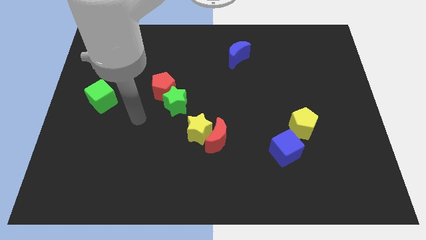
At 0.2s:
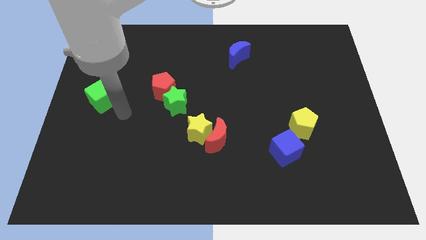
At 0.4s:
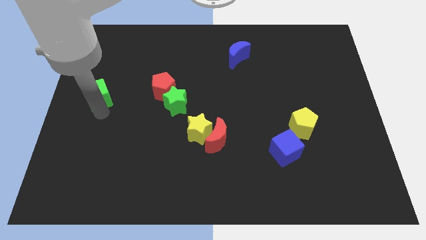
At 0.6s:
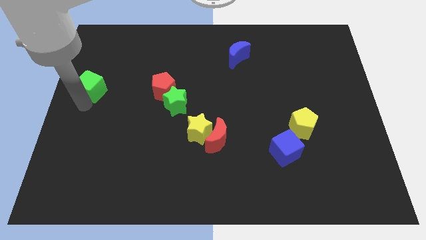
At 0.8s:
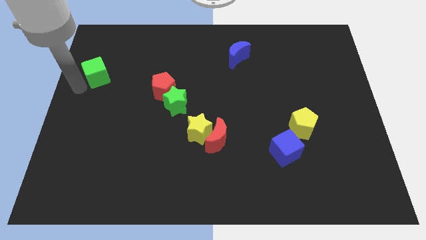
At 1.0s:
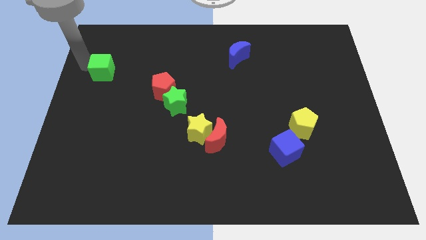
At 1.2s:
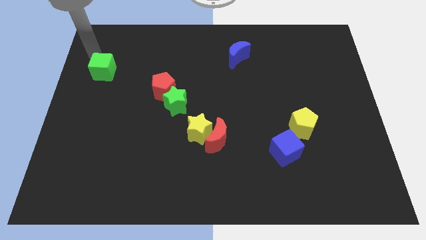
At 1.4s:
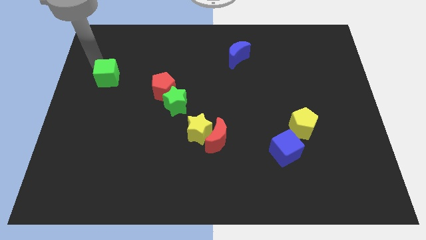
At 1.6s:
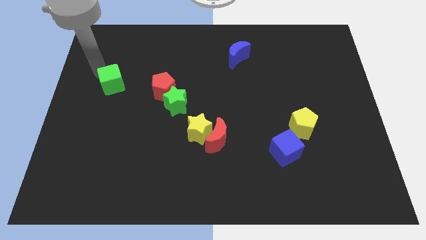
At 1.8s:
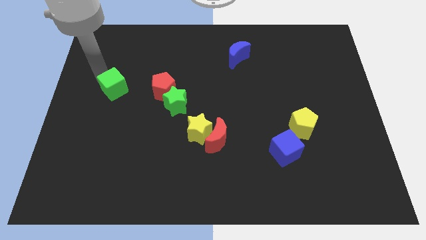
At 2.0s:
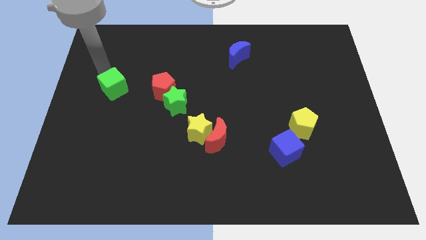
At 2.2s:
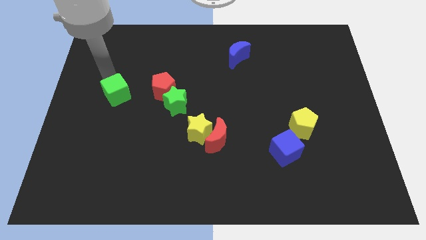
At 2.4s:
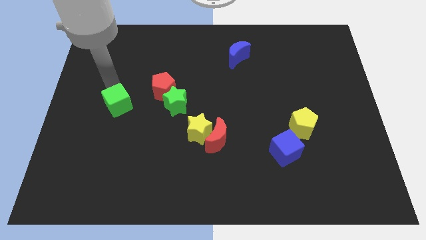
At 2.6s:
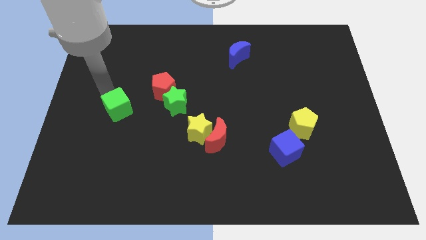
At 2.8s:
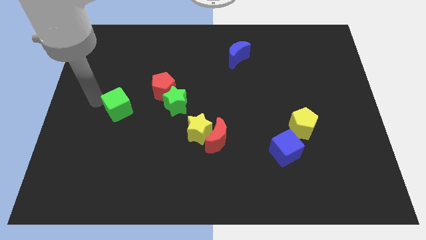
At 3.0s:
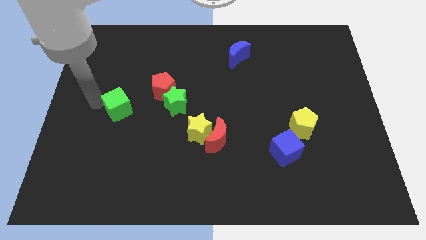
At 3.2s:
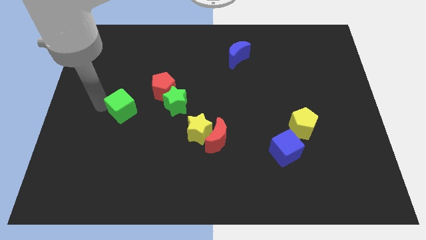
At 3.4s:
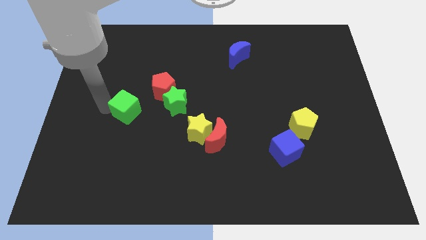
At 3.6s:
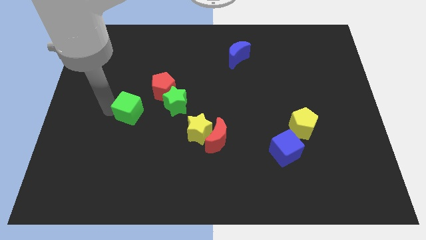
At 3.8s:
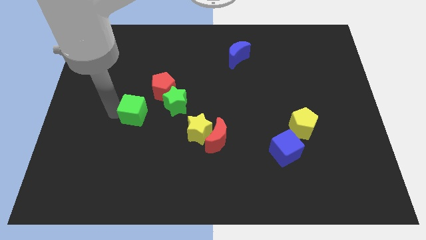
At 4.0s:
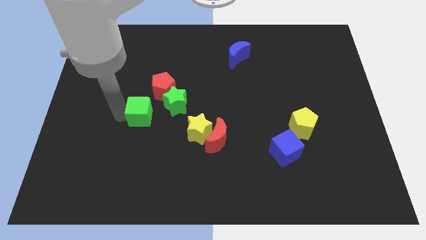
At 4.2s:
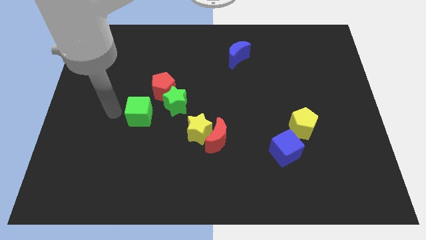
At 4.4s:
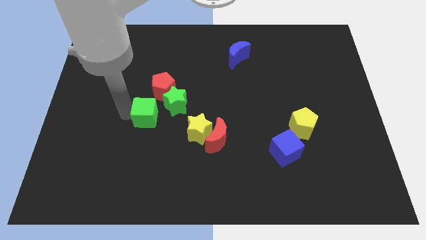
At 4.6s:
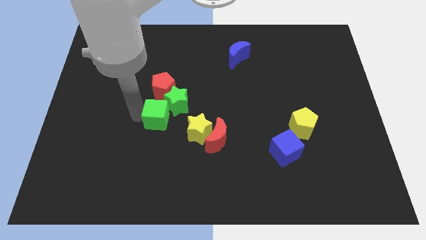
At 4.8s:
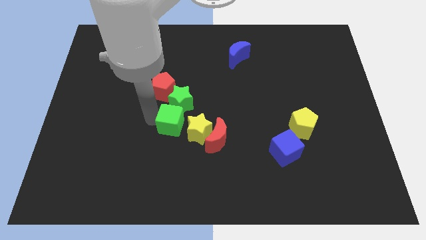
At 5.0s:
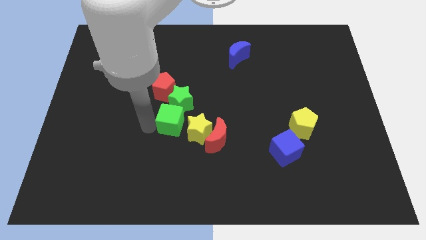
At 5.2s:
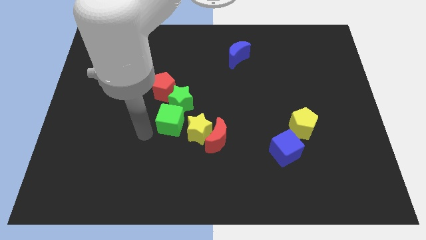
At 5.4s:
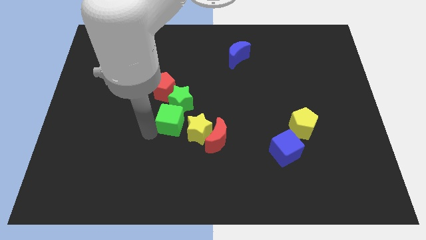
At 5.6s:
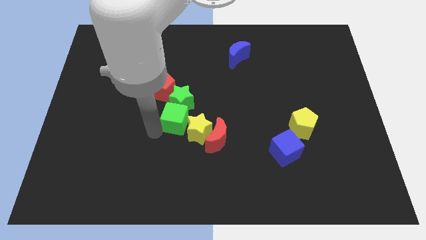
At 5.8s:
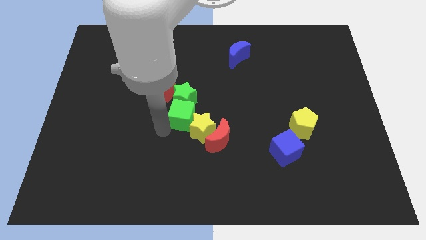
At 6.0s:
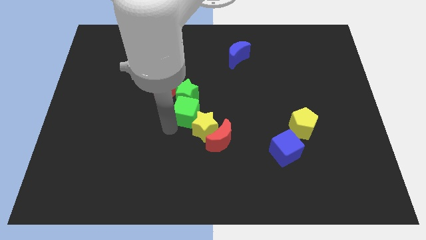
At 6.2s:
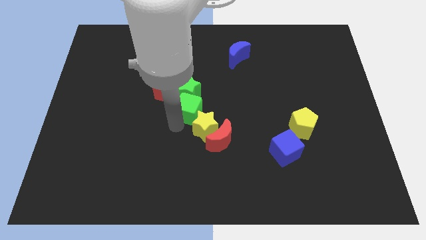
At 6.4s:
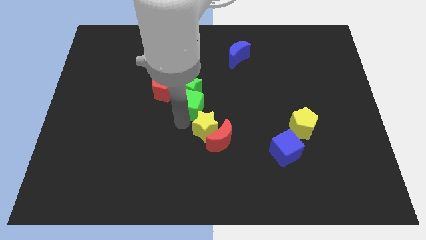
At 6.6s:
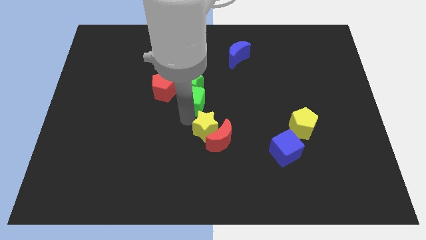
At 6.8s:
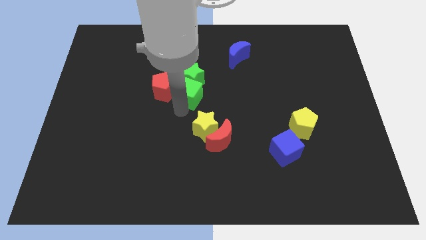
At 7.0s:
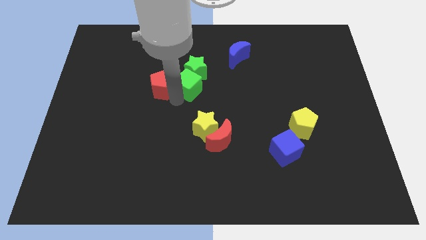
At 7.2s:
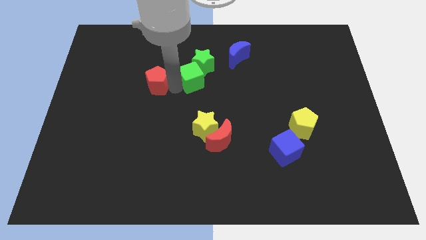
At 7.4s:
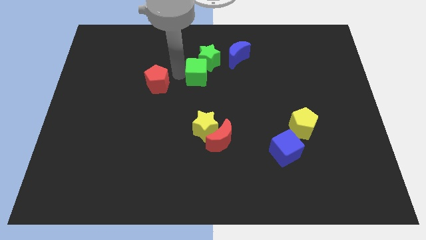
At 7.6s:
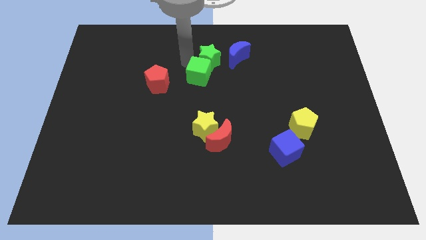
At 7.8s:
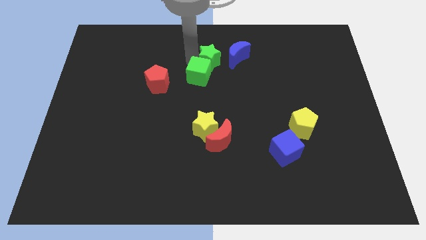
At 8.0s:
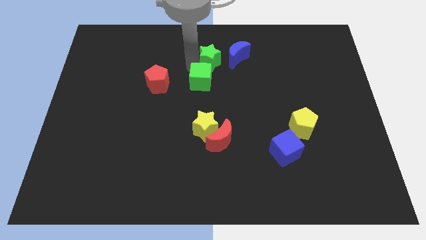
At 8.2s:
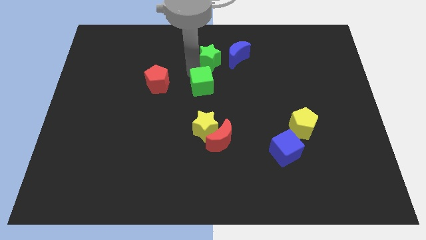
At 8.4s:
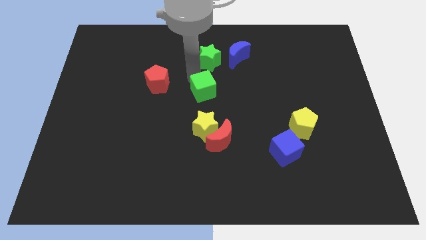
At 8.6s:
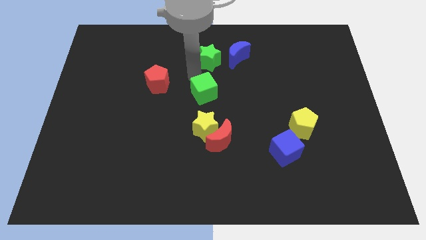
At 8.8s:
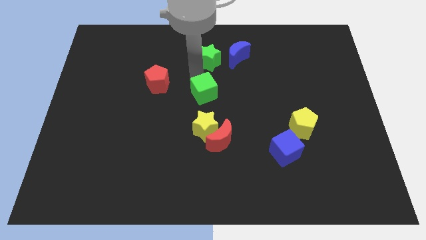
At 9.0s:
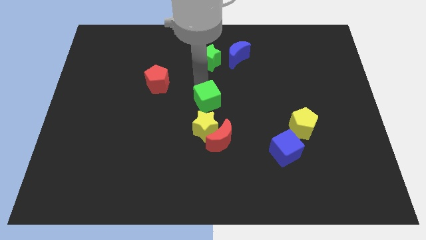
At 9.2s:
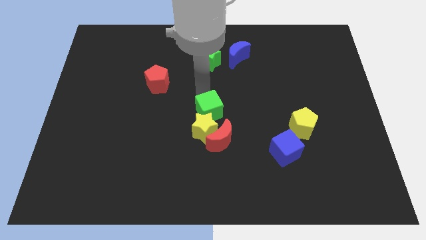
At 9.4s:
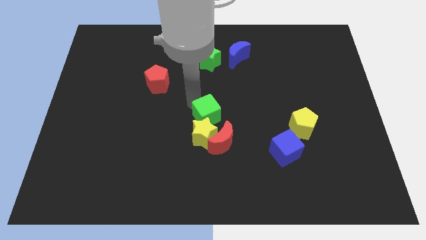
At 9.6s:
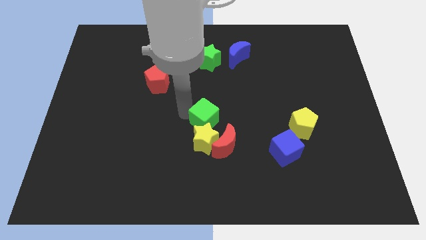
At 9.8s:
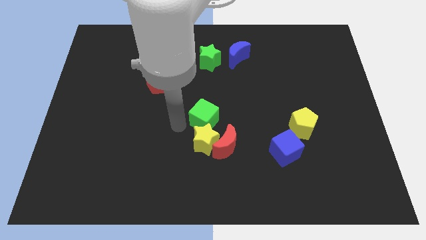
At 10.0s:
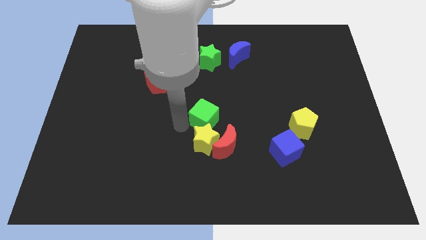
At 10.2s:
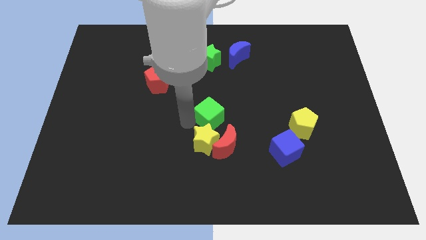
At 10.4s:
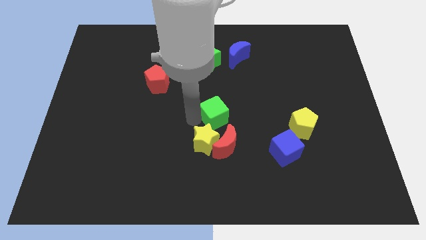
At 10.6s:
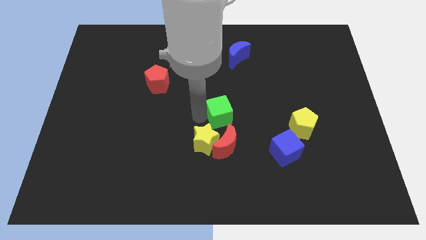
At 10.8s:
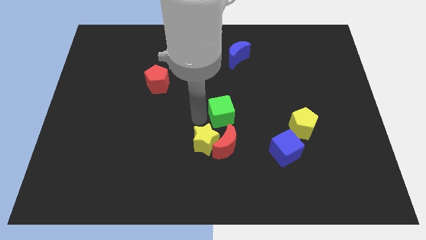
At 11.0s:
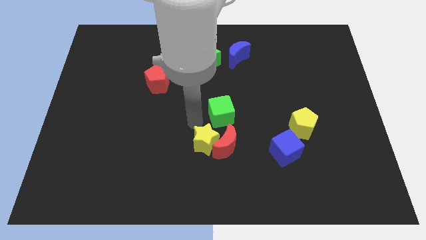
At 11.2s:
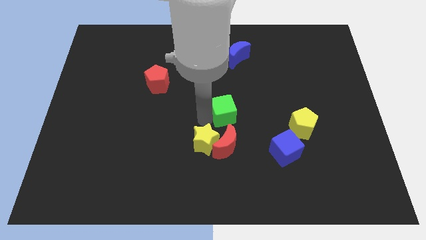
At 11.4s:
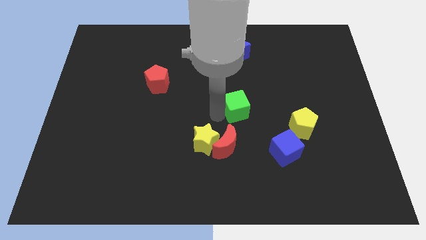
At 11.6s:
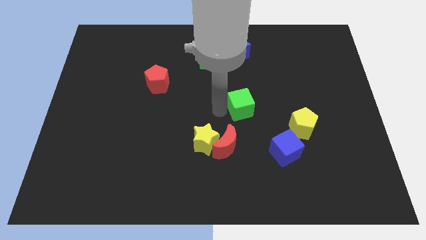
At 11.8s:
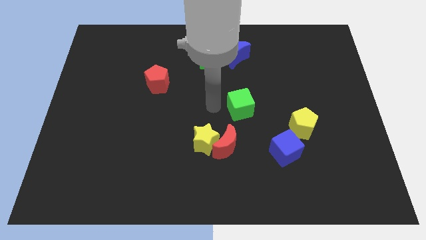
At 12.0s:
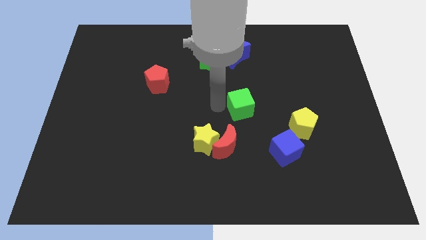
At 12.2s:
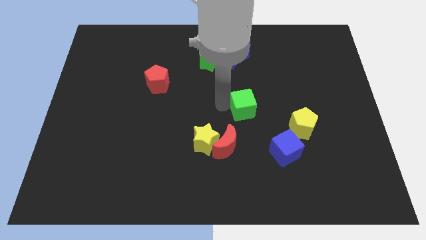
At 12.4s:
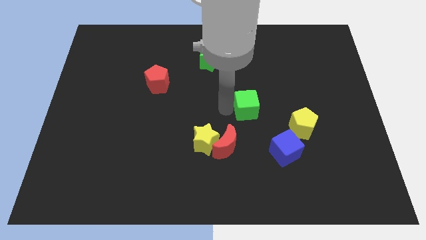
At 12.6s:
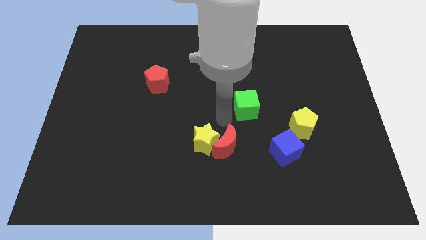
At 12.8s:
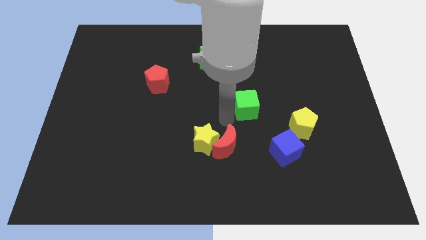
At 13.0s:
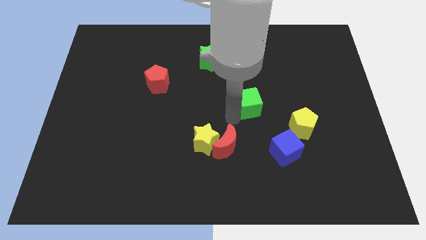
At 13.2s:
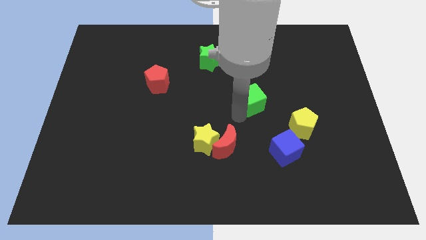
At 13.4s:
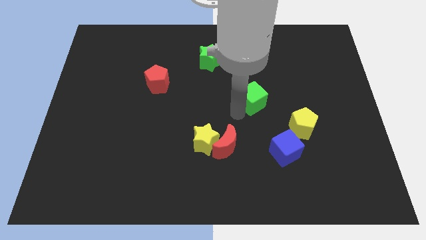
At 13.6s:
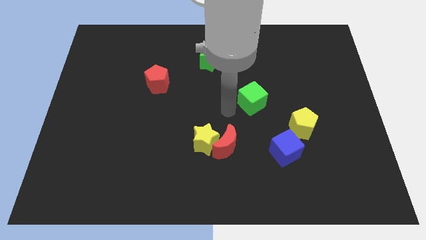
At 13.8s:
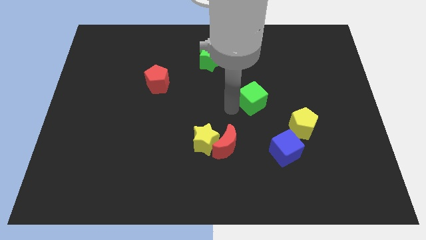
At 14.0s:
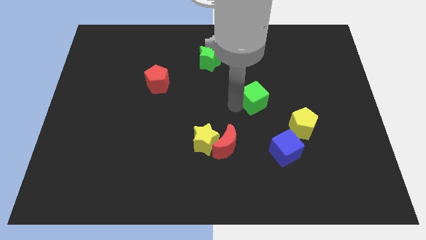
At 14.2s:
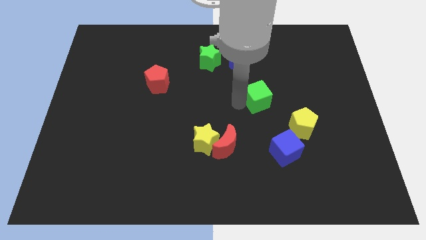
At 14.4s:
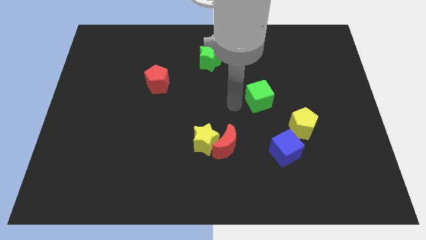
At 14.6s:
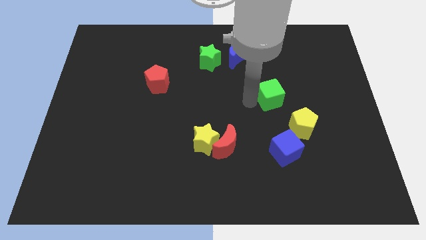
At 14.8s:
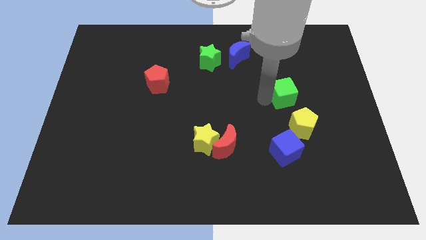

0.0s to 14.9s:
put the green cube to the top side of the yellow pentagon

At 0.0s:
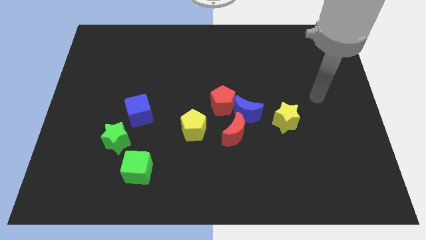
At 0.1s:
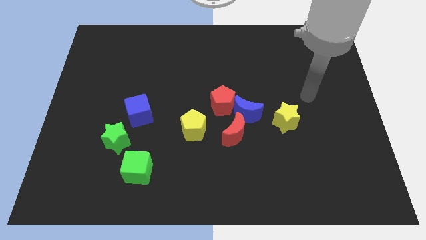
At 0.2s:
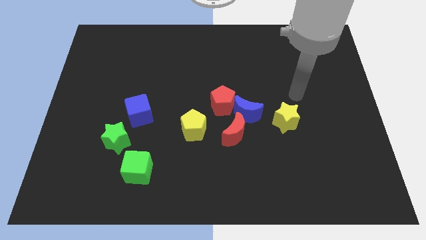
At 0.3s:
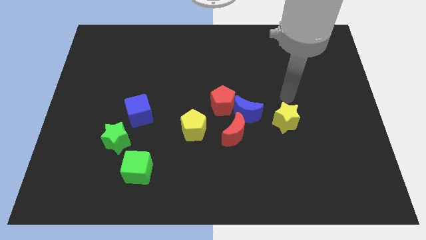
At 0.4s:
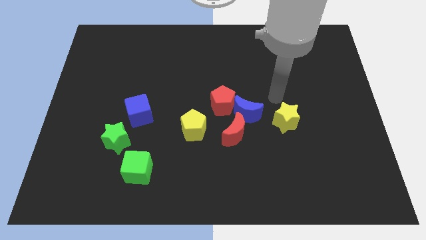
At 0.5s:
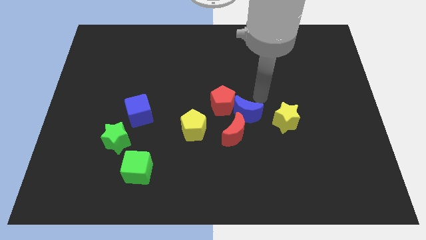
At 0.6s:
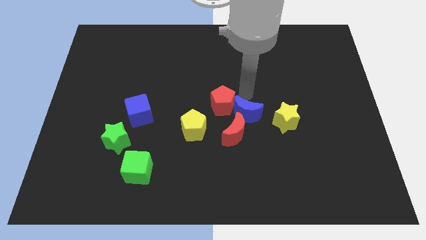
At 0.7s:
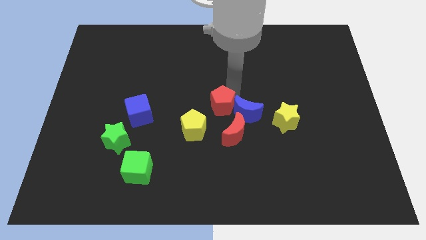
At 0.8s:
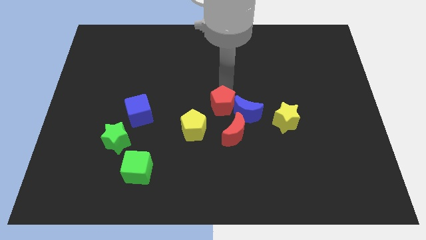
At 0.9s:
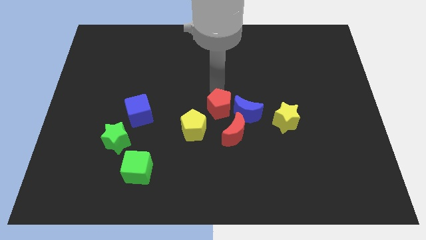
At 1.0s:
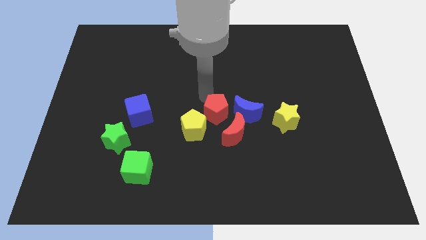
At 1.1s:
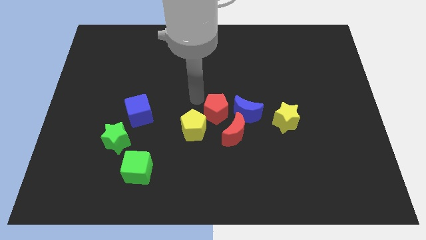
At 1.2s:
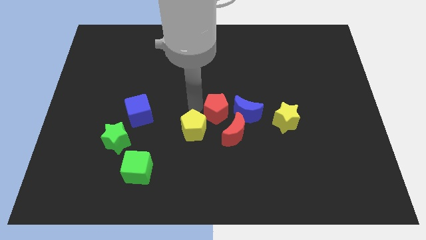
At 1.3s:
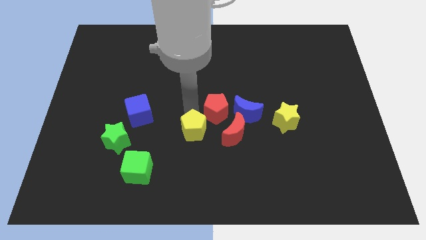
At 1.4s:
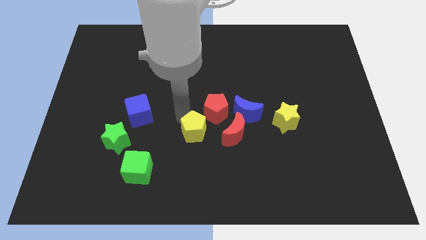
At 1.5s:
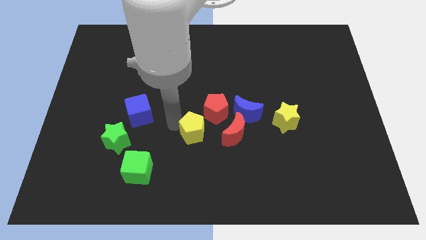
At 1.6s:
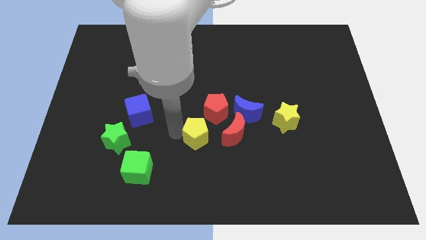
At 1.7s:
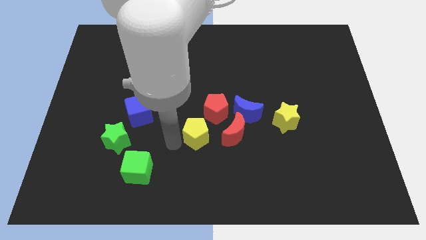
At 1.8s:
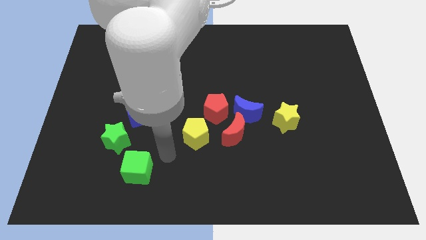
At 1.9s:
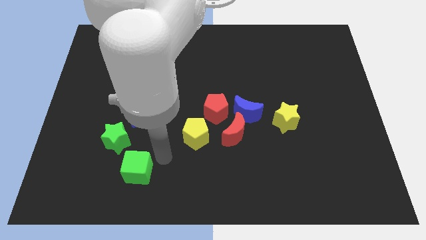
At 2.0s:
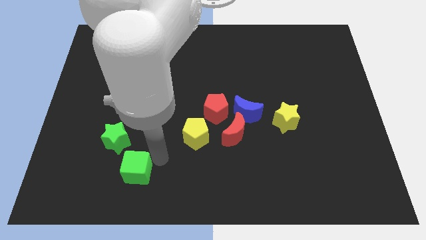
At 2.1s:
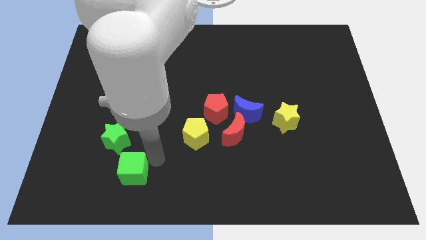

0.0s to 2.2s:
put the green cube to the bottom side of the green star
